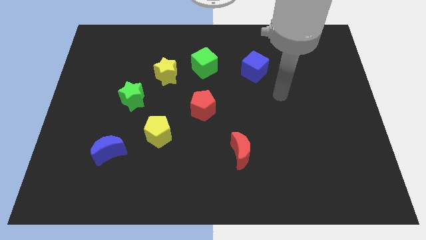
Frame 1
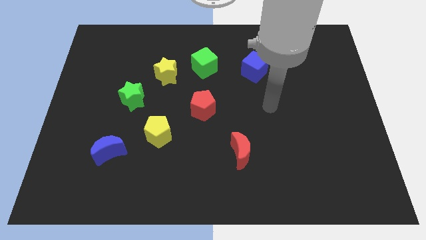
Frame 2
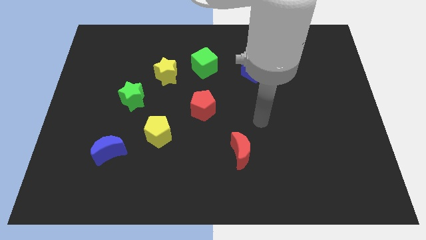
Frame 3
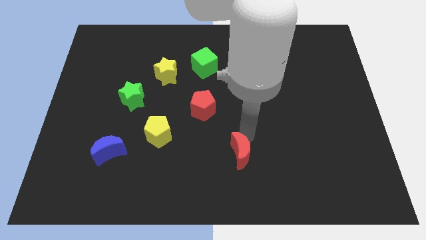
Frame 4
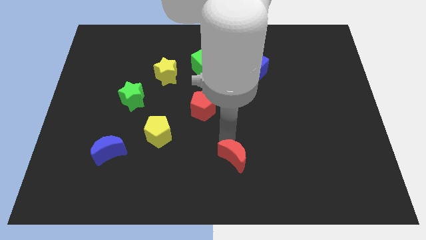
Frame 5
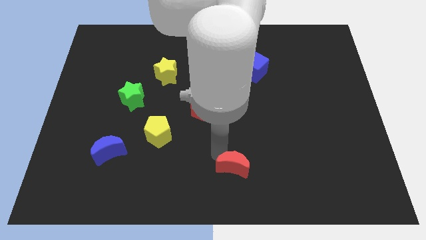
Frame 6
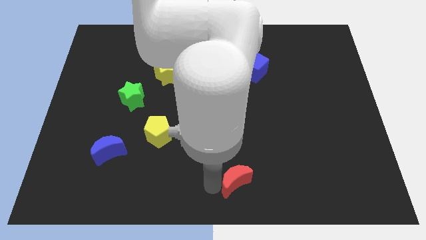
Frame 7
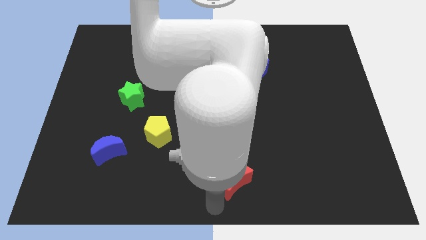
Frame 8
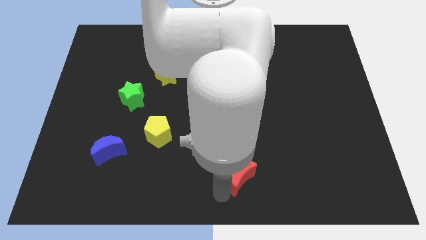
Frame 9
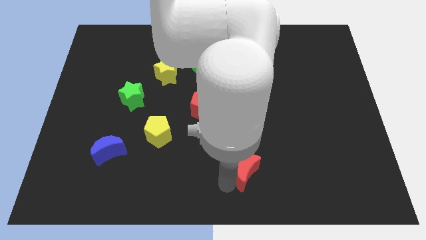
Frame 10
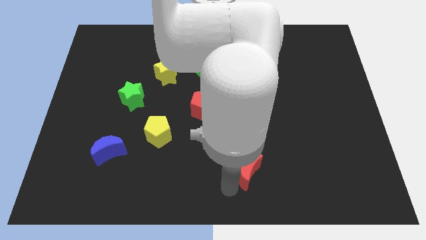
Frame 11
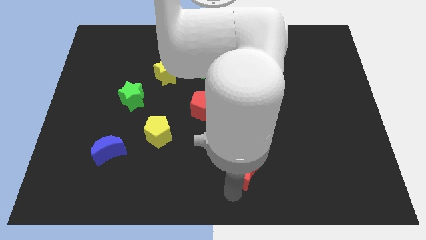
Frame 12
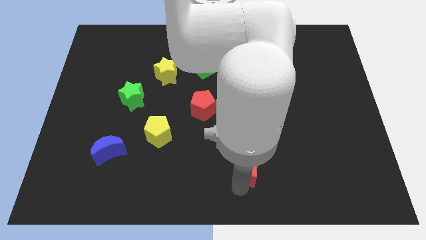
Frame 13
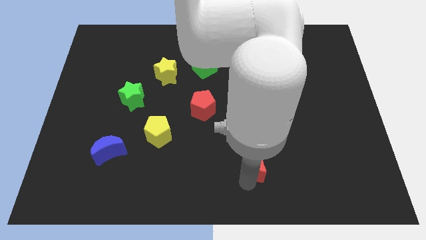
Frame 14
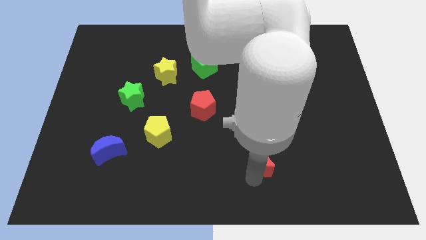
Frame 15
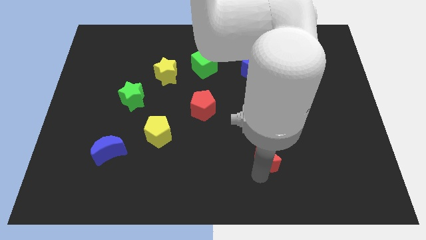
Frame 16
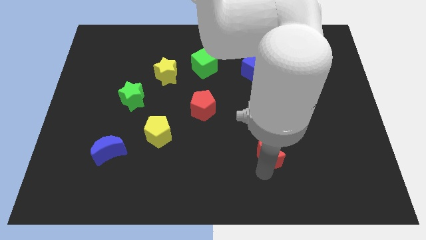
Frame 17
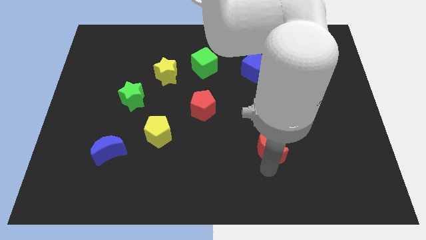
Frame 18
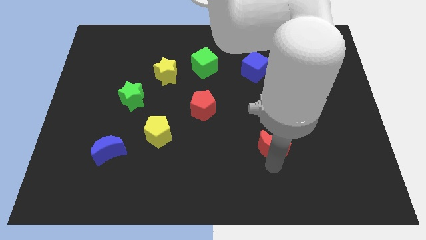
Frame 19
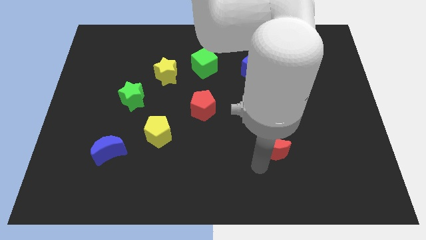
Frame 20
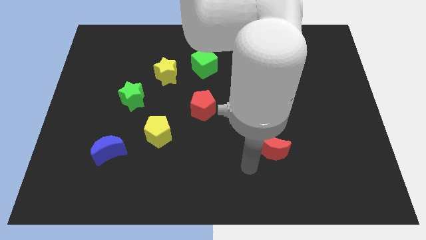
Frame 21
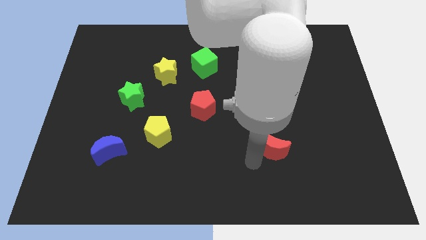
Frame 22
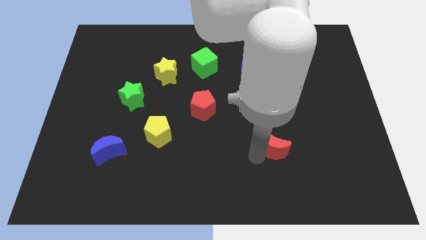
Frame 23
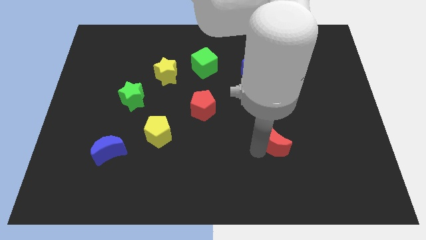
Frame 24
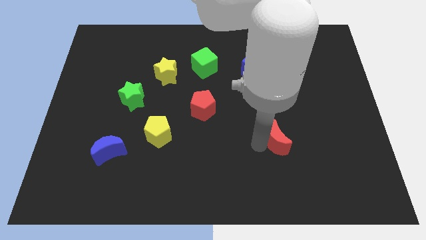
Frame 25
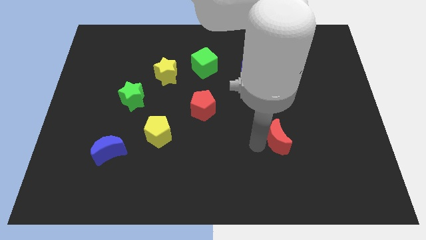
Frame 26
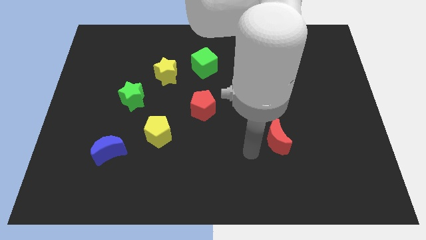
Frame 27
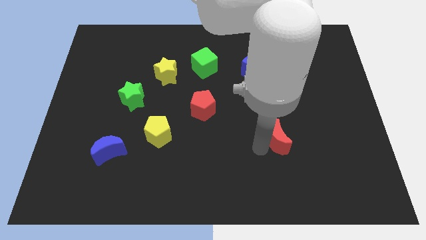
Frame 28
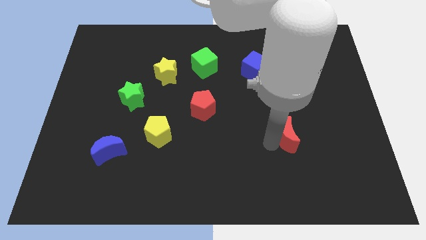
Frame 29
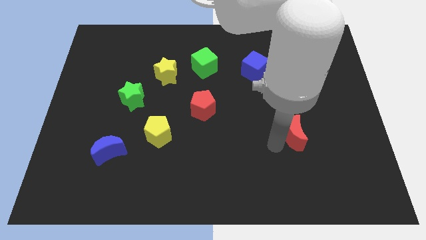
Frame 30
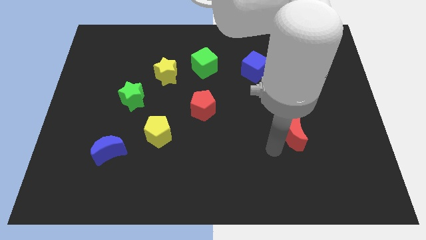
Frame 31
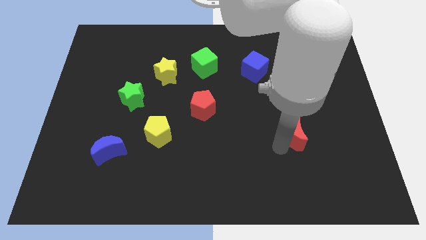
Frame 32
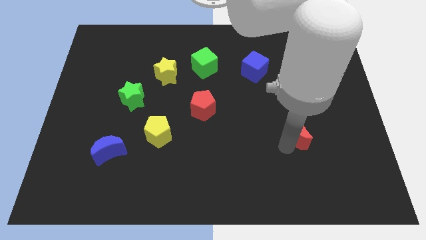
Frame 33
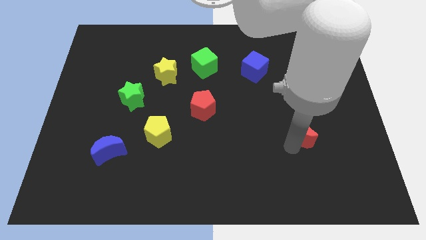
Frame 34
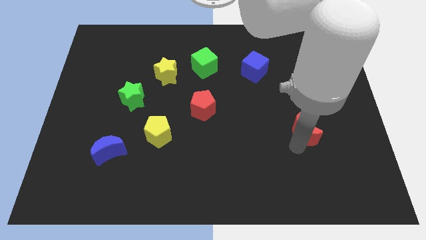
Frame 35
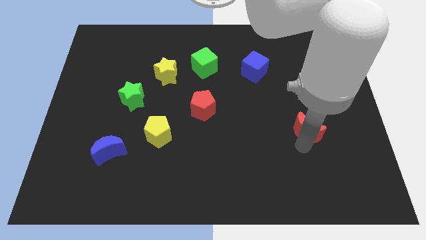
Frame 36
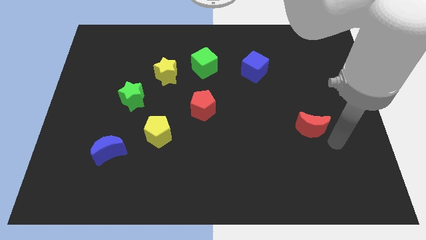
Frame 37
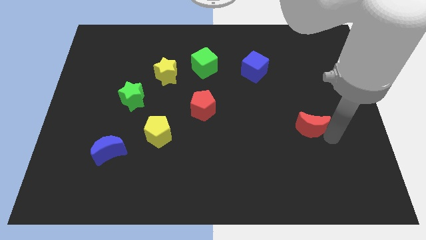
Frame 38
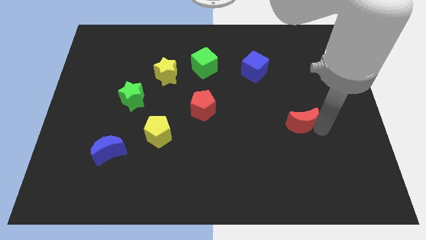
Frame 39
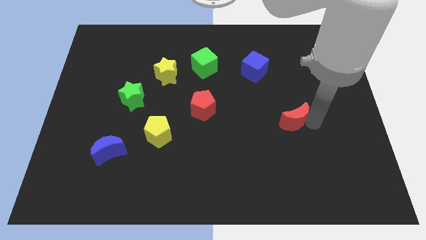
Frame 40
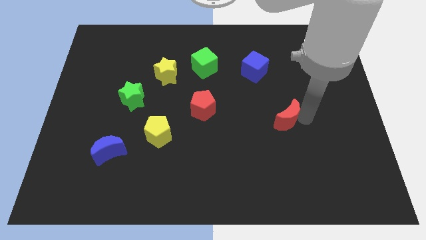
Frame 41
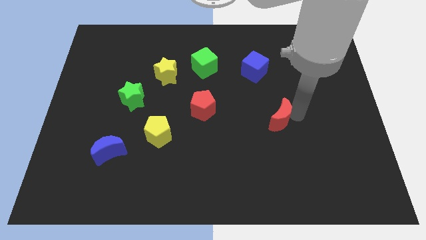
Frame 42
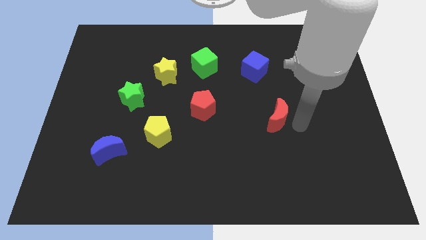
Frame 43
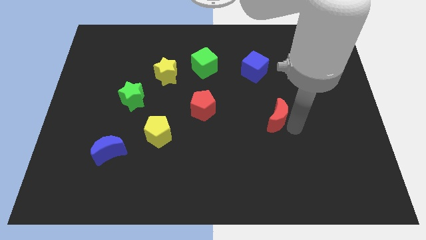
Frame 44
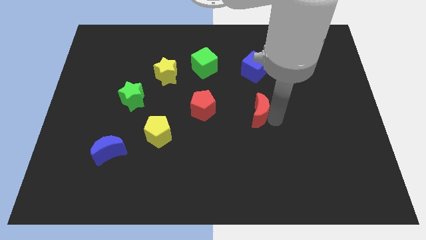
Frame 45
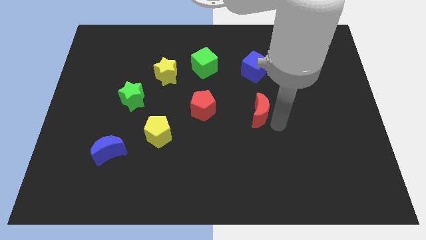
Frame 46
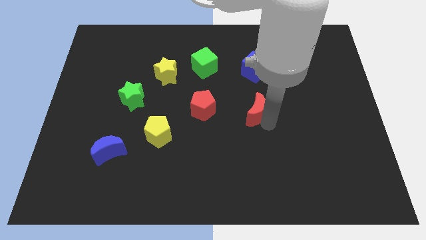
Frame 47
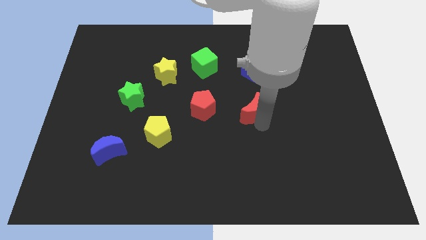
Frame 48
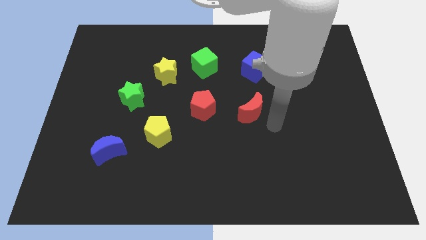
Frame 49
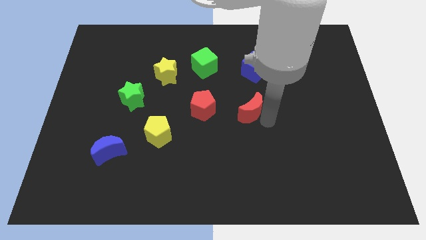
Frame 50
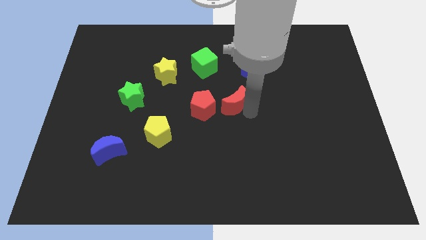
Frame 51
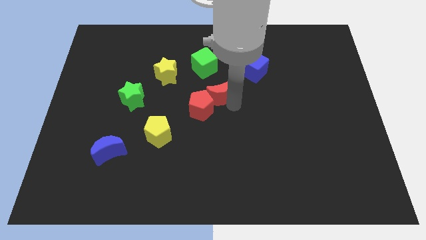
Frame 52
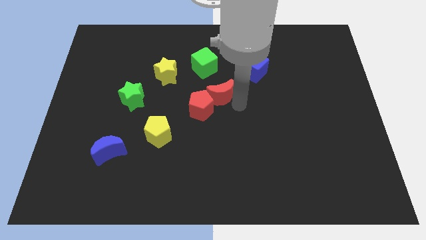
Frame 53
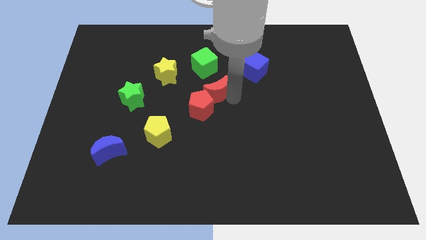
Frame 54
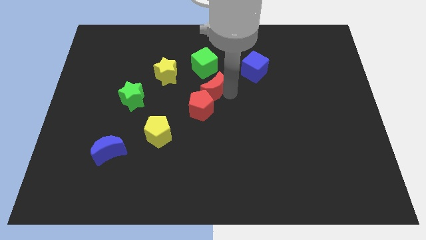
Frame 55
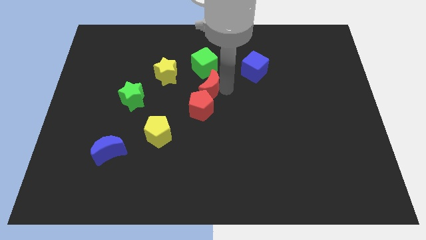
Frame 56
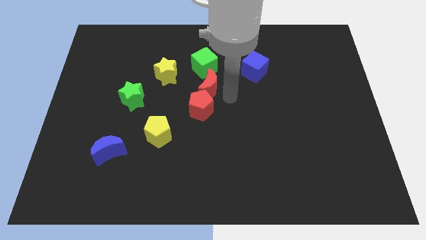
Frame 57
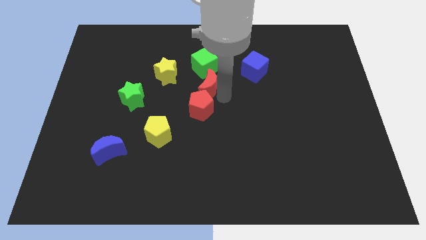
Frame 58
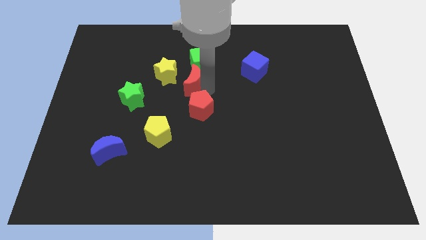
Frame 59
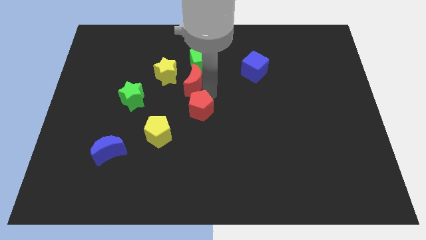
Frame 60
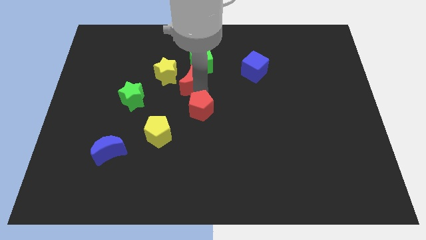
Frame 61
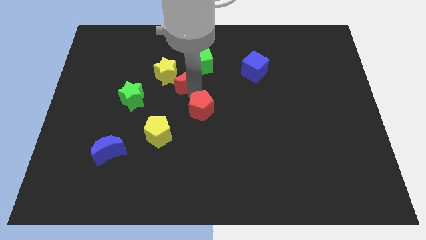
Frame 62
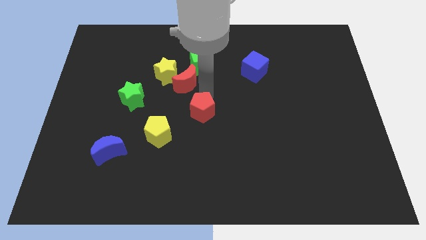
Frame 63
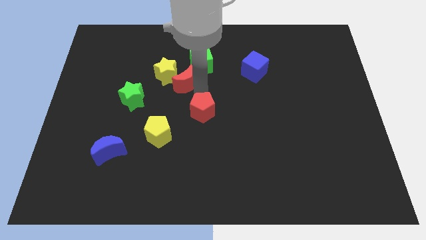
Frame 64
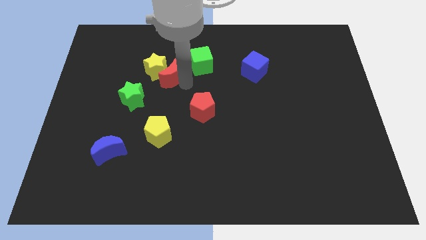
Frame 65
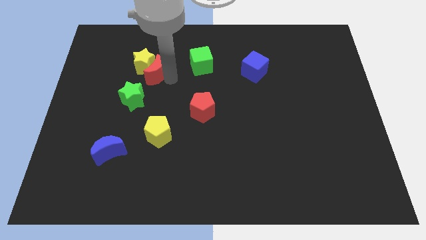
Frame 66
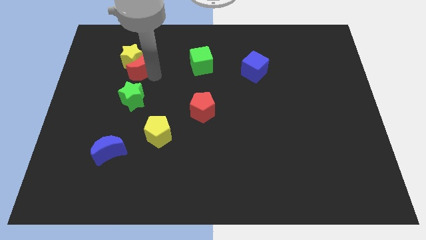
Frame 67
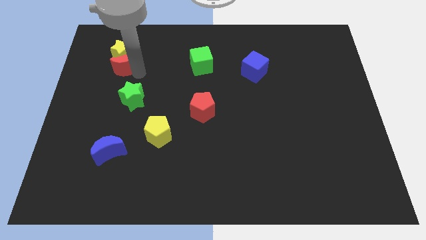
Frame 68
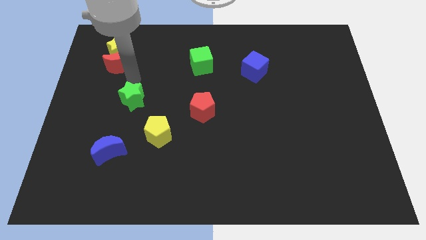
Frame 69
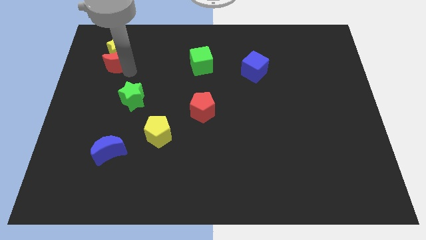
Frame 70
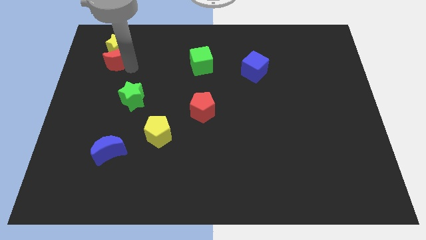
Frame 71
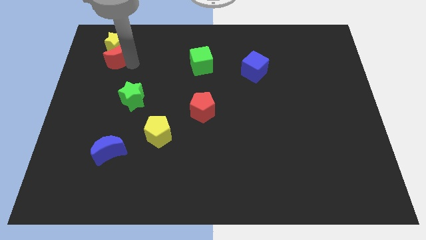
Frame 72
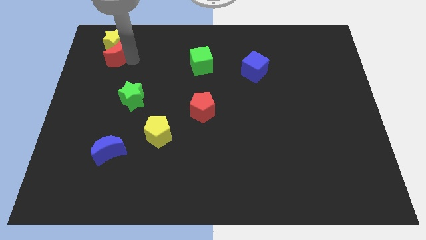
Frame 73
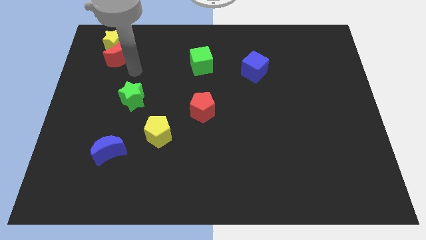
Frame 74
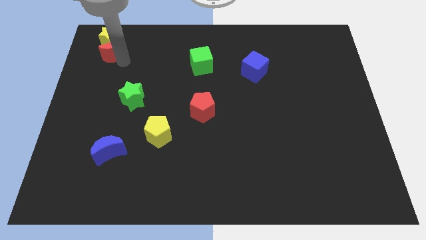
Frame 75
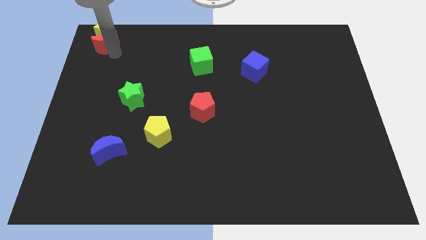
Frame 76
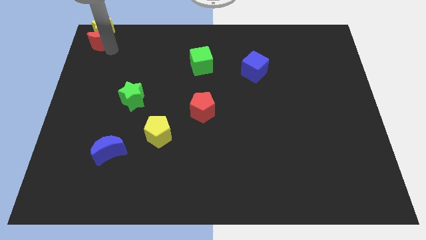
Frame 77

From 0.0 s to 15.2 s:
put the red moon to the top left of the board
